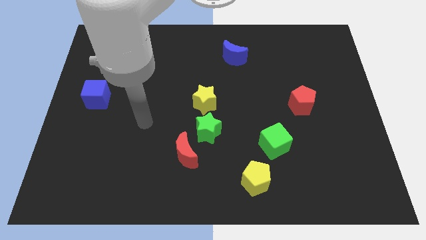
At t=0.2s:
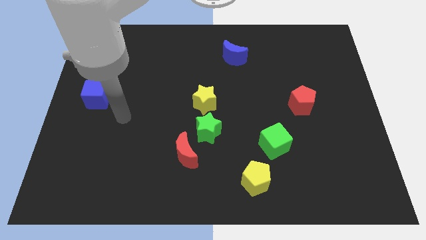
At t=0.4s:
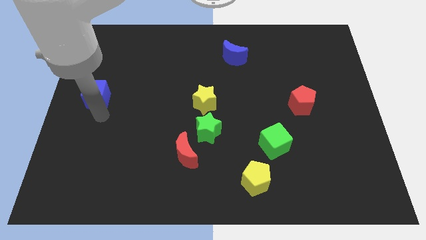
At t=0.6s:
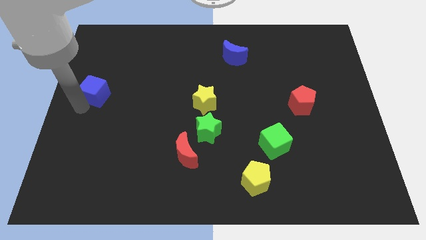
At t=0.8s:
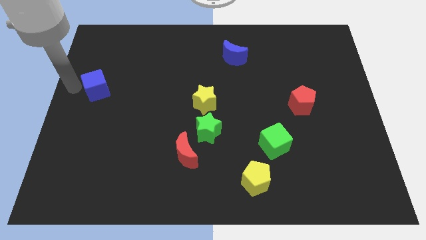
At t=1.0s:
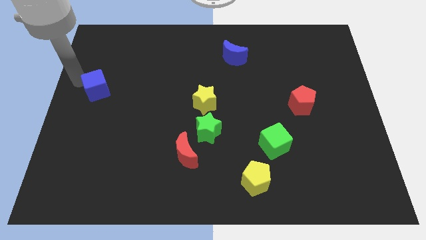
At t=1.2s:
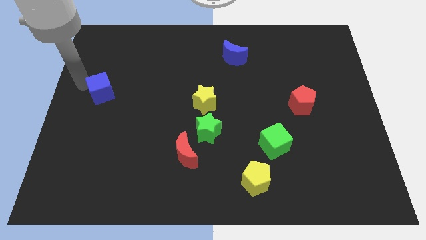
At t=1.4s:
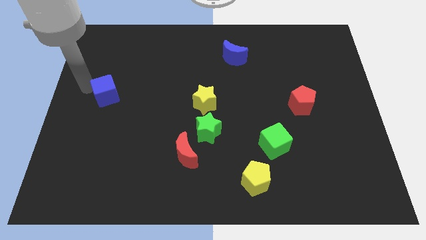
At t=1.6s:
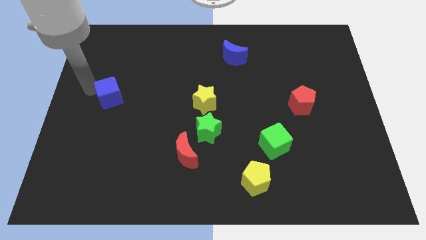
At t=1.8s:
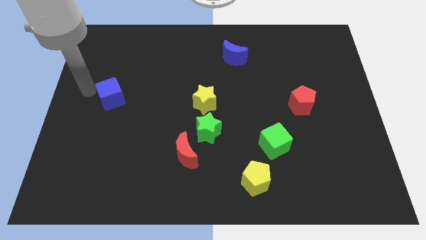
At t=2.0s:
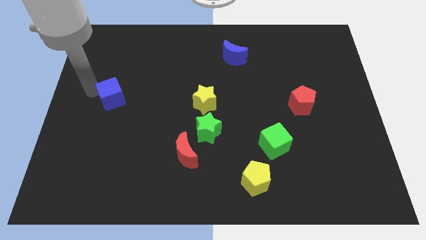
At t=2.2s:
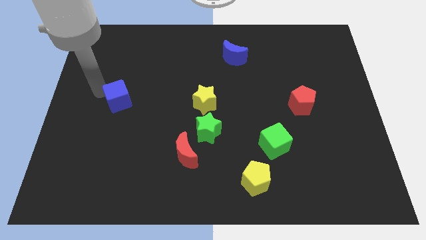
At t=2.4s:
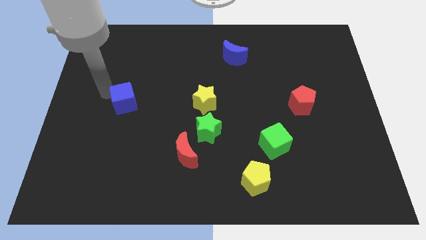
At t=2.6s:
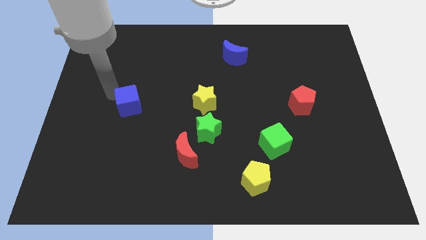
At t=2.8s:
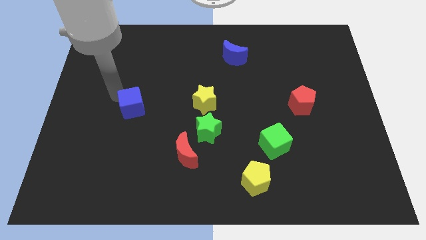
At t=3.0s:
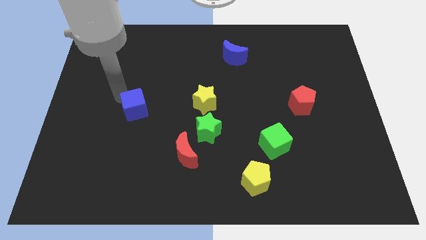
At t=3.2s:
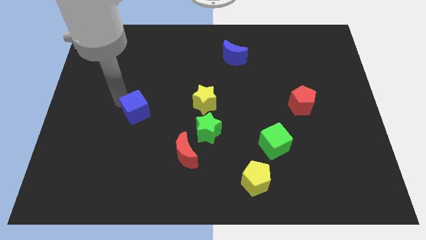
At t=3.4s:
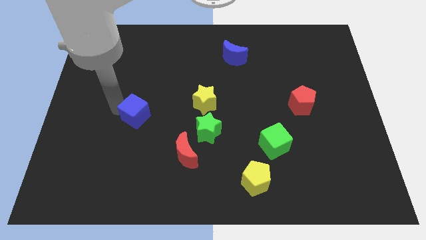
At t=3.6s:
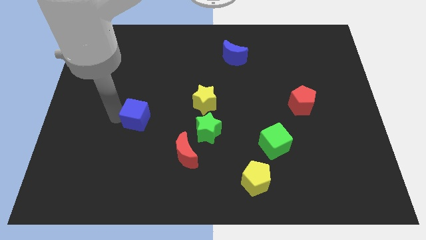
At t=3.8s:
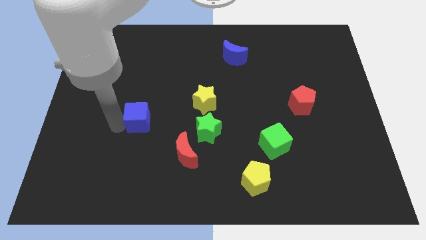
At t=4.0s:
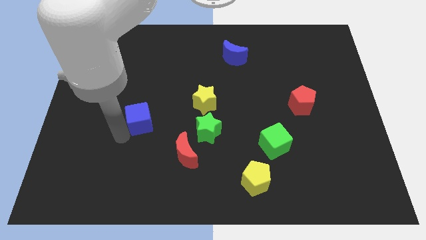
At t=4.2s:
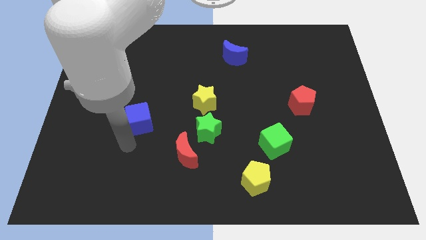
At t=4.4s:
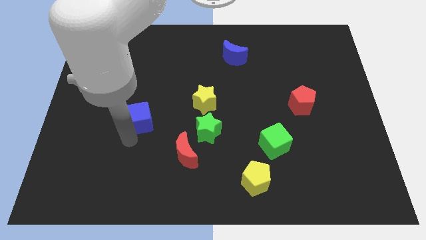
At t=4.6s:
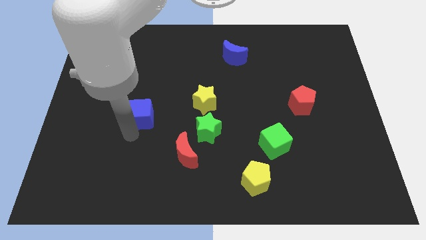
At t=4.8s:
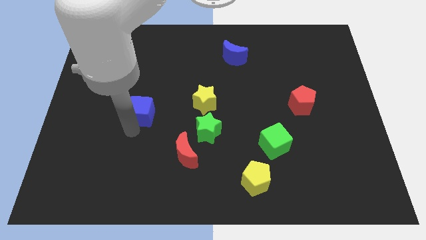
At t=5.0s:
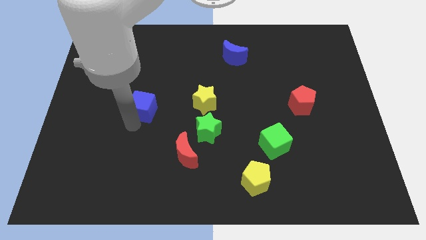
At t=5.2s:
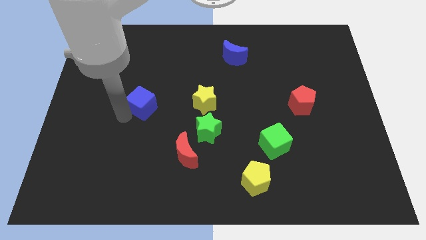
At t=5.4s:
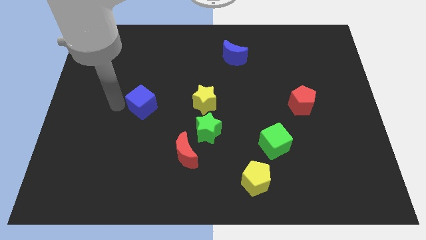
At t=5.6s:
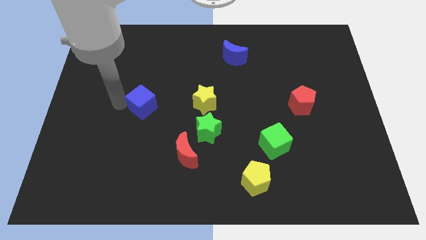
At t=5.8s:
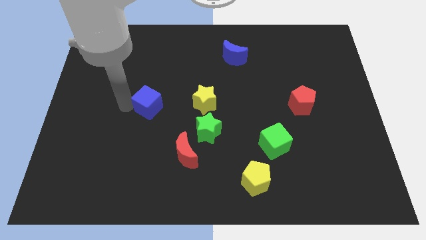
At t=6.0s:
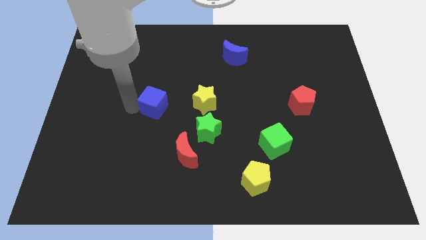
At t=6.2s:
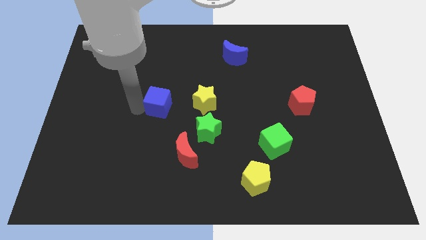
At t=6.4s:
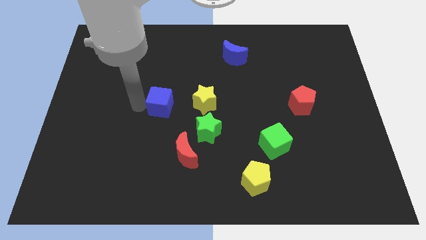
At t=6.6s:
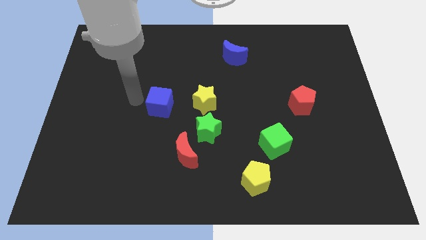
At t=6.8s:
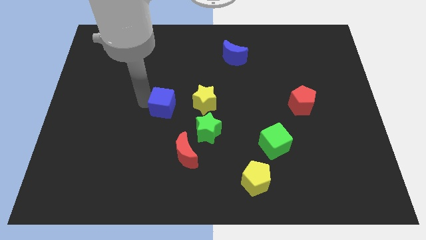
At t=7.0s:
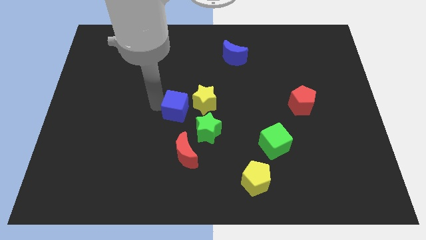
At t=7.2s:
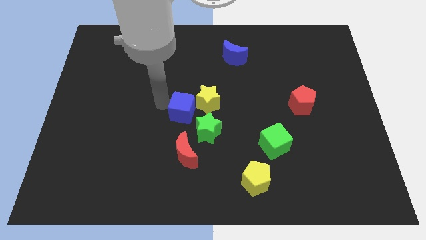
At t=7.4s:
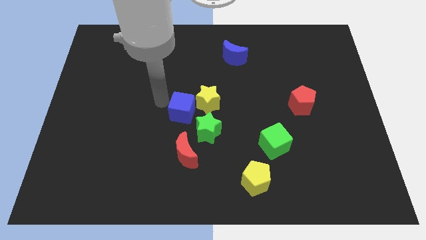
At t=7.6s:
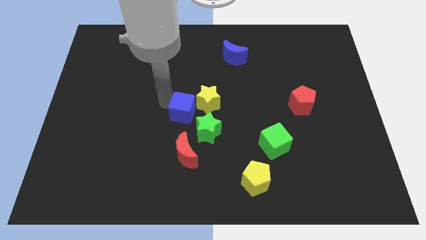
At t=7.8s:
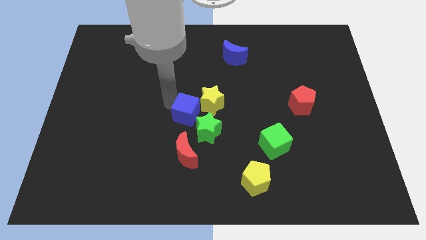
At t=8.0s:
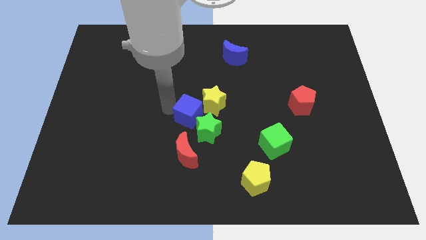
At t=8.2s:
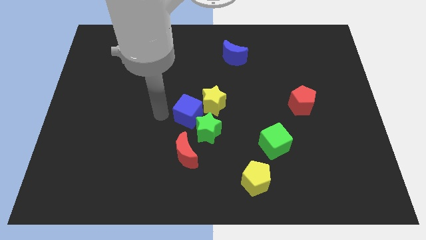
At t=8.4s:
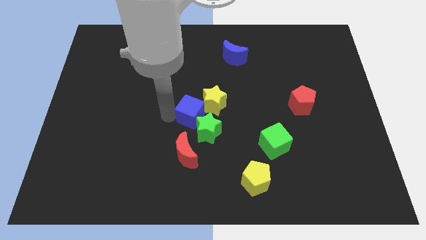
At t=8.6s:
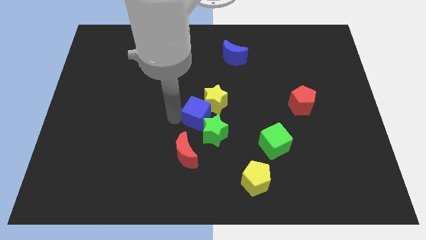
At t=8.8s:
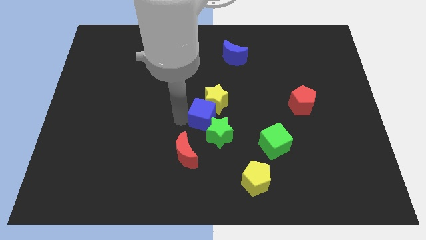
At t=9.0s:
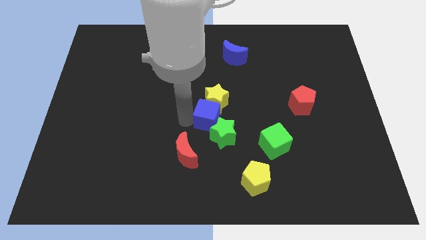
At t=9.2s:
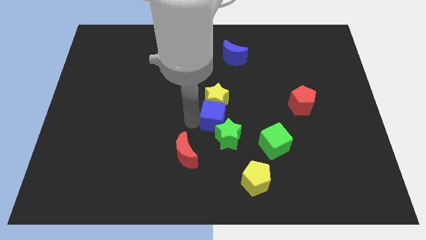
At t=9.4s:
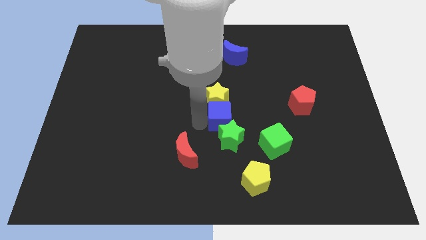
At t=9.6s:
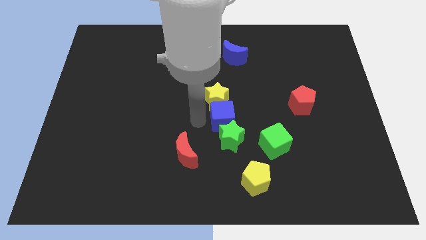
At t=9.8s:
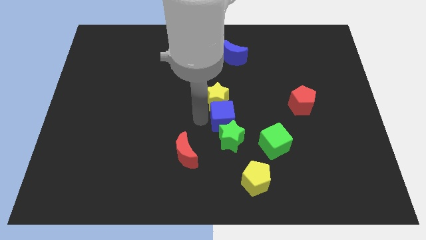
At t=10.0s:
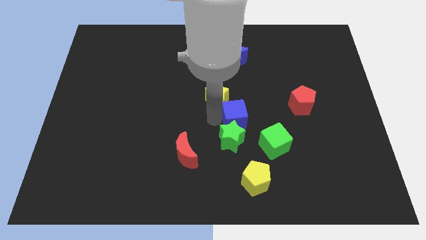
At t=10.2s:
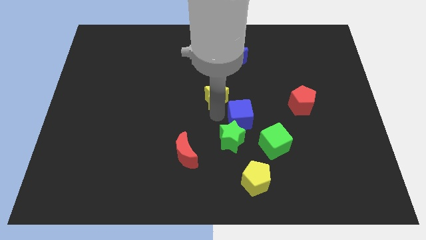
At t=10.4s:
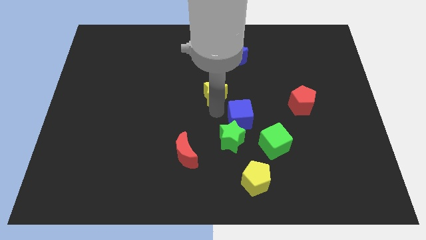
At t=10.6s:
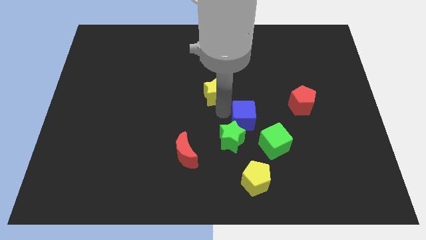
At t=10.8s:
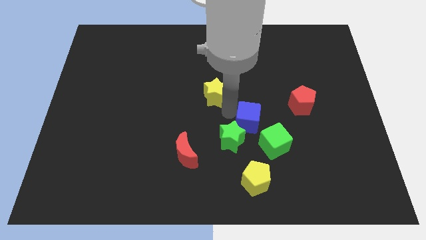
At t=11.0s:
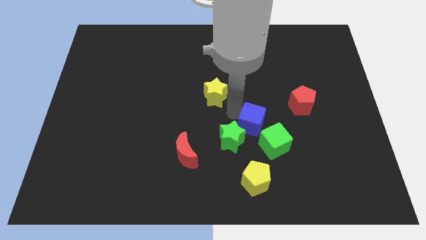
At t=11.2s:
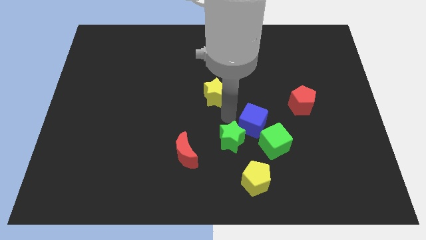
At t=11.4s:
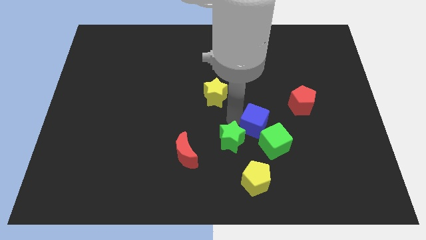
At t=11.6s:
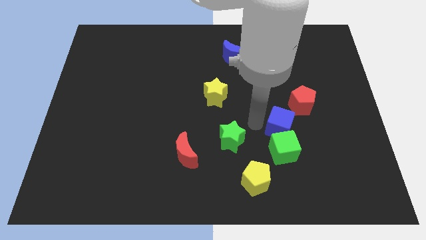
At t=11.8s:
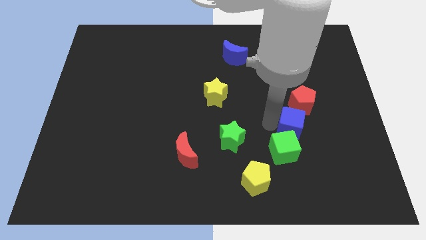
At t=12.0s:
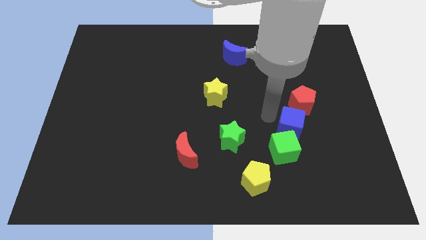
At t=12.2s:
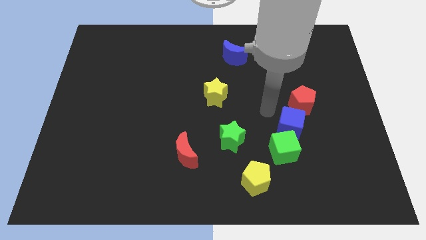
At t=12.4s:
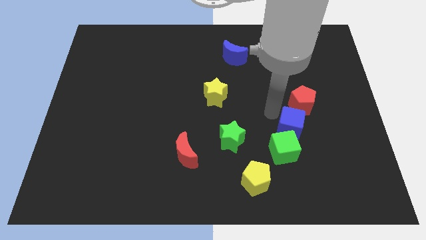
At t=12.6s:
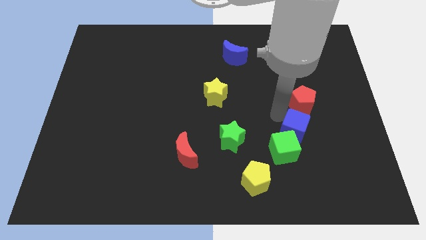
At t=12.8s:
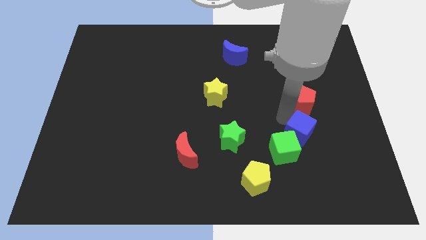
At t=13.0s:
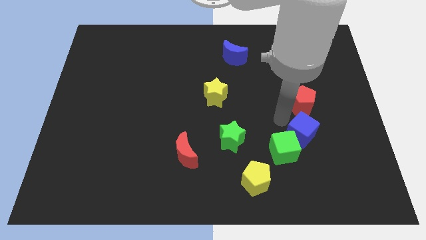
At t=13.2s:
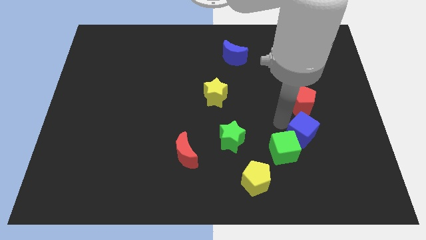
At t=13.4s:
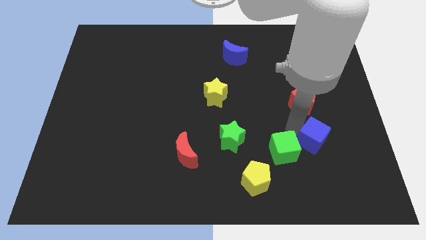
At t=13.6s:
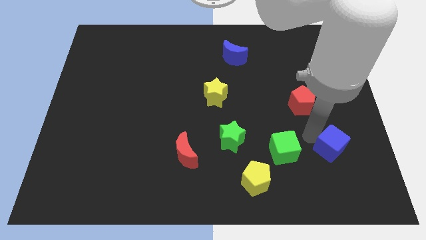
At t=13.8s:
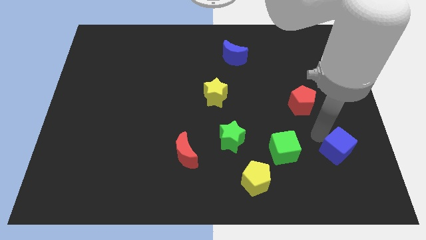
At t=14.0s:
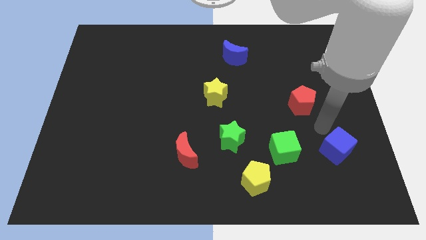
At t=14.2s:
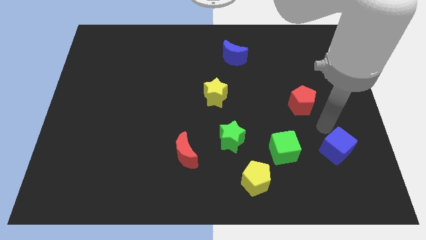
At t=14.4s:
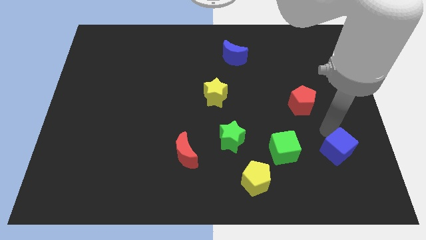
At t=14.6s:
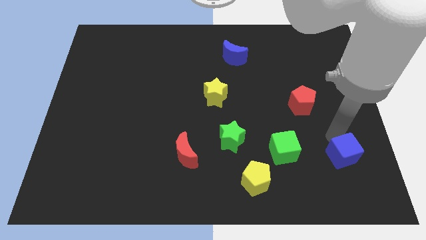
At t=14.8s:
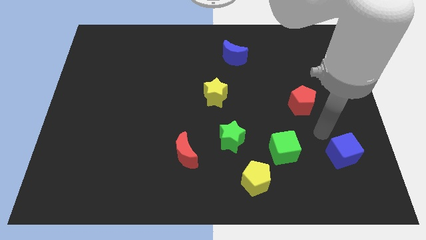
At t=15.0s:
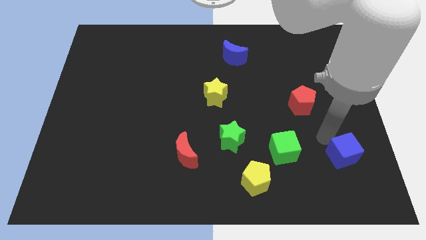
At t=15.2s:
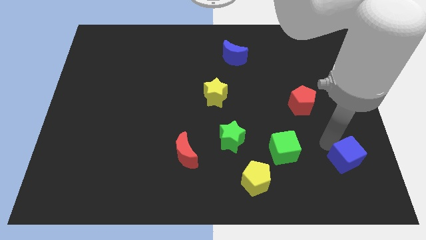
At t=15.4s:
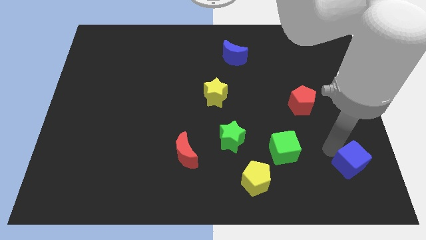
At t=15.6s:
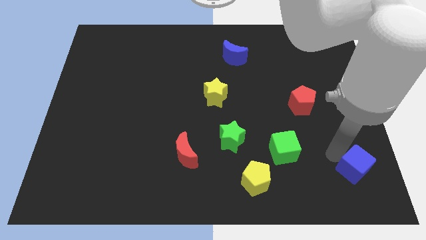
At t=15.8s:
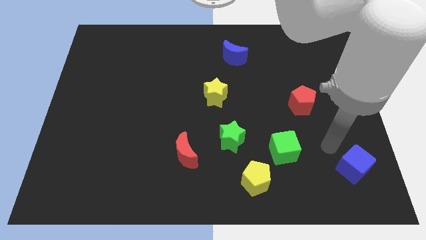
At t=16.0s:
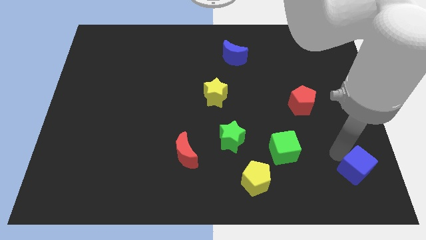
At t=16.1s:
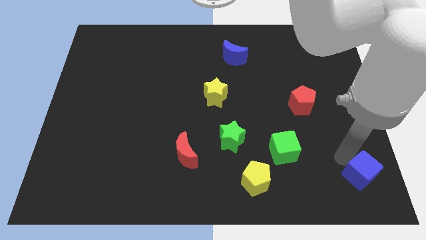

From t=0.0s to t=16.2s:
put the blue cube to the lower right corner
